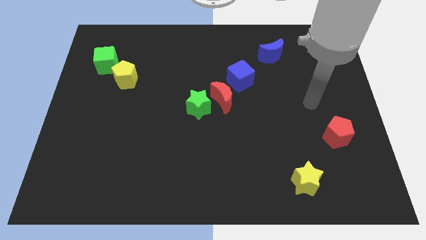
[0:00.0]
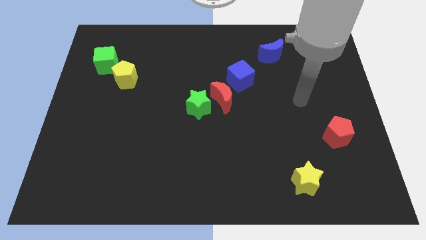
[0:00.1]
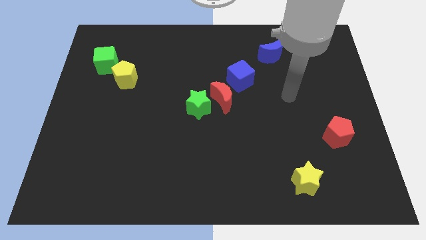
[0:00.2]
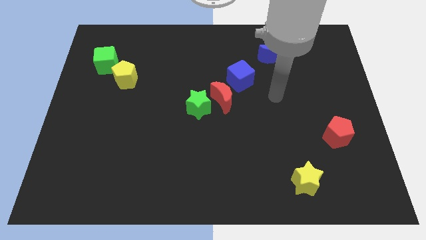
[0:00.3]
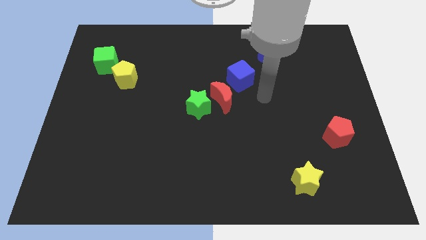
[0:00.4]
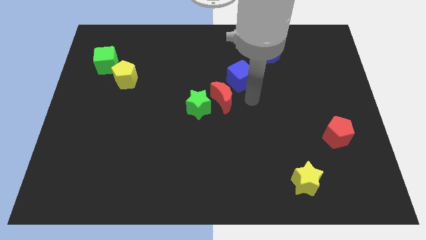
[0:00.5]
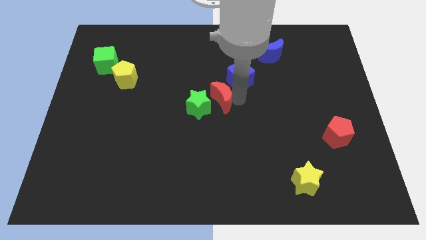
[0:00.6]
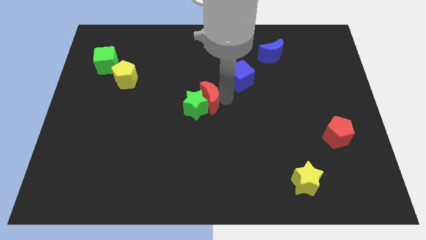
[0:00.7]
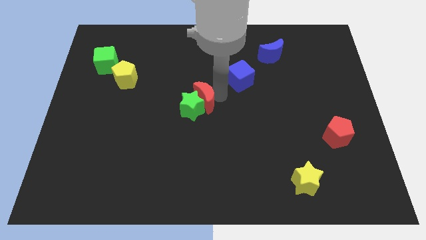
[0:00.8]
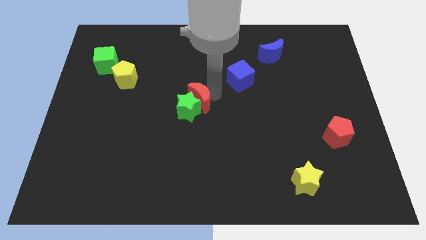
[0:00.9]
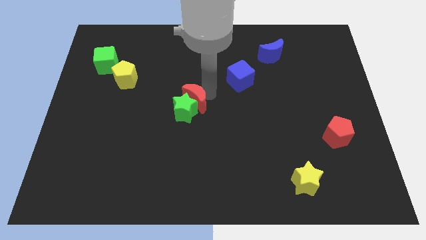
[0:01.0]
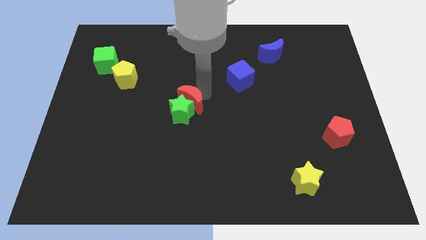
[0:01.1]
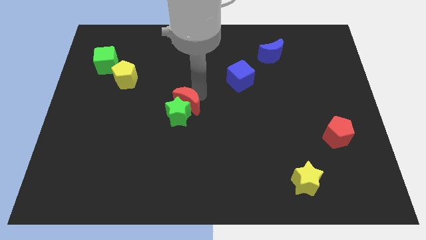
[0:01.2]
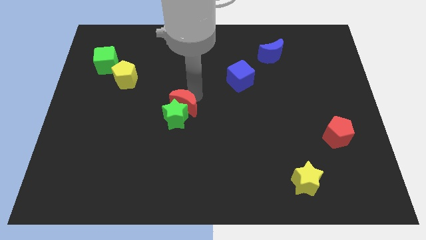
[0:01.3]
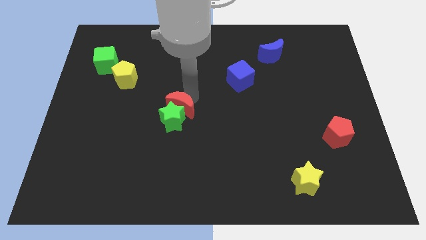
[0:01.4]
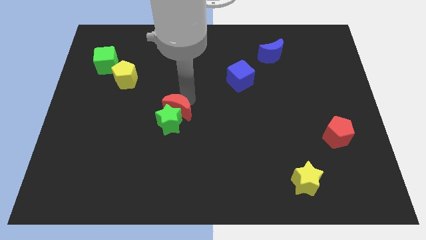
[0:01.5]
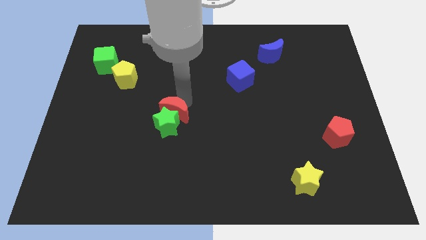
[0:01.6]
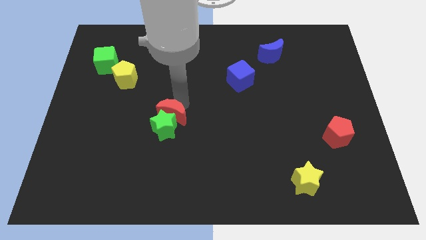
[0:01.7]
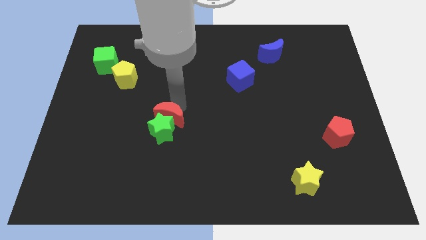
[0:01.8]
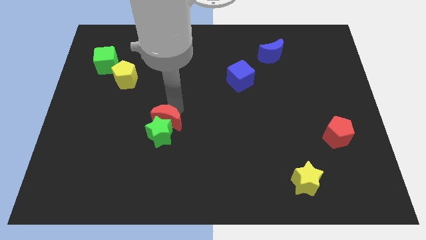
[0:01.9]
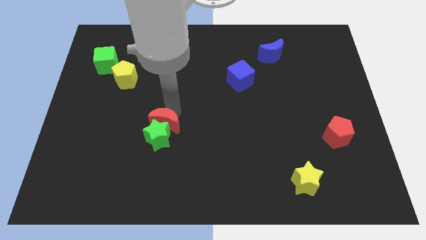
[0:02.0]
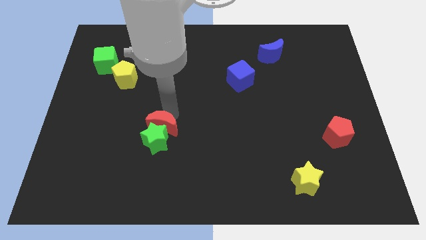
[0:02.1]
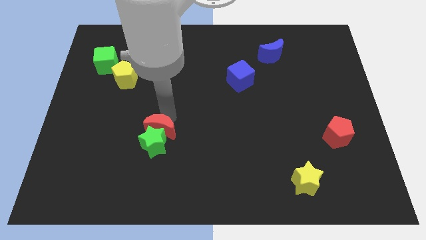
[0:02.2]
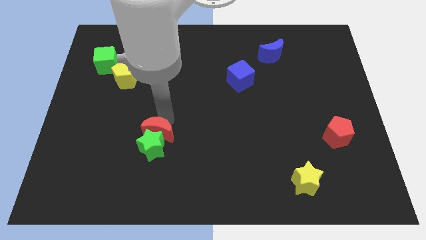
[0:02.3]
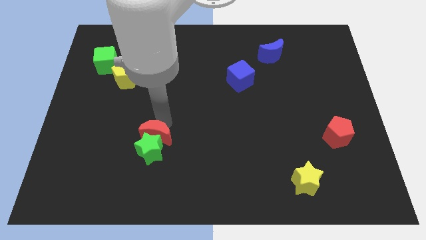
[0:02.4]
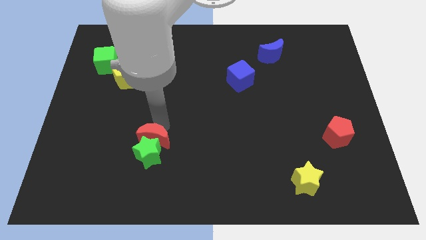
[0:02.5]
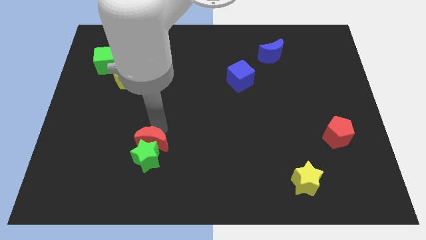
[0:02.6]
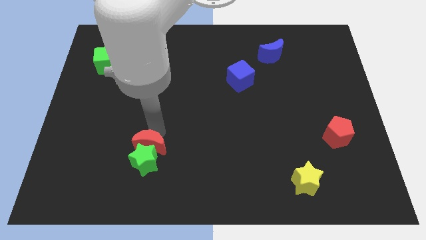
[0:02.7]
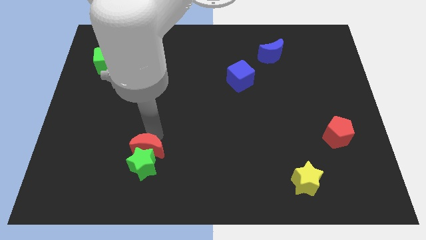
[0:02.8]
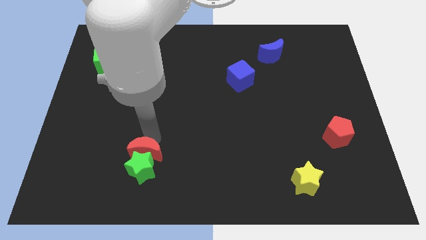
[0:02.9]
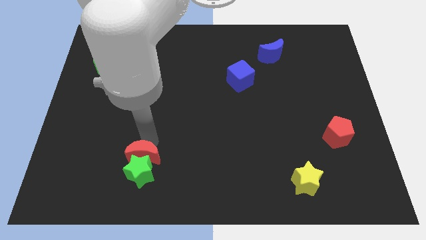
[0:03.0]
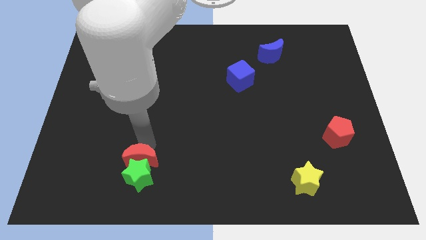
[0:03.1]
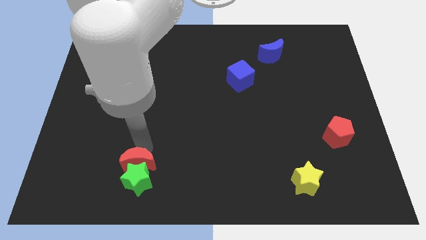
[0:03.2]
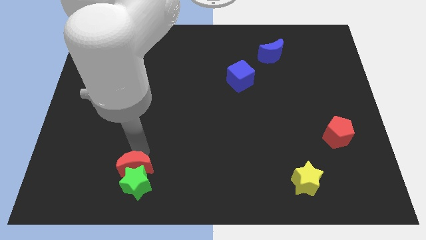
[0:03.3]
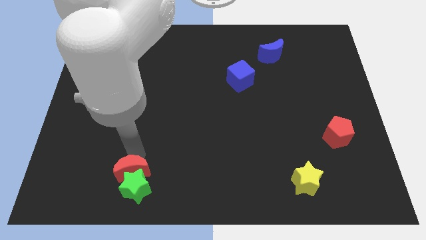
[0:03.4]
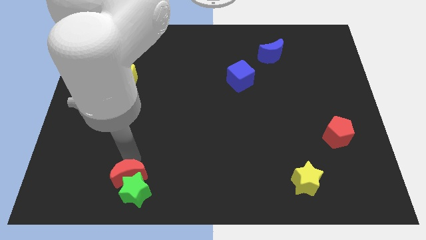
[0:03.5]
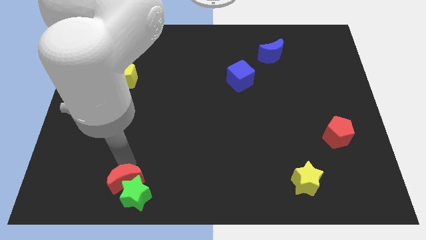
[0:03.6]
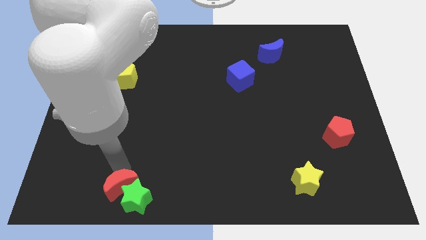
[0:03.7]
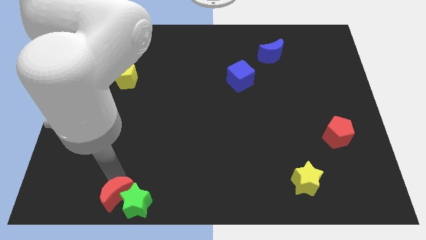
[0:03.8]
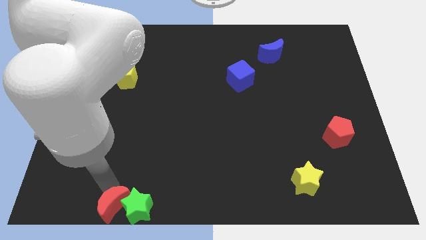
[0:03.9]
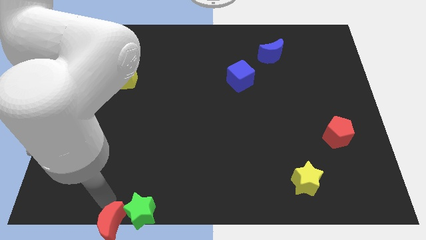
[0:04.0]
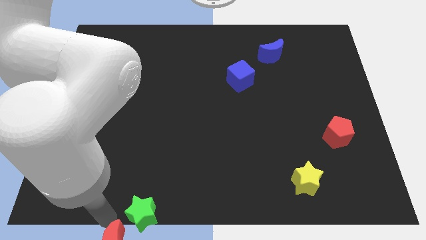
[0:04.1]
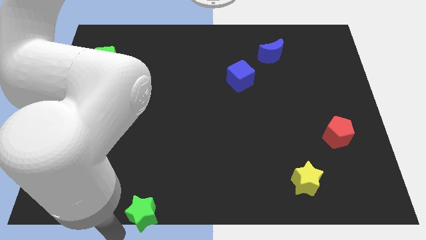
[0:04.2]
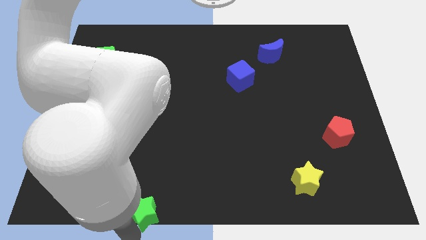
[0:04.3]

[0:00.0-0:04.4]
separate the green star from the red moon

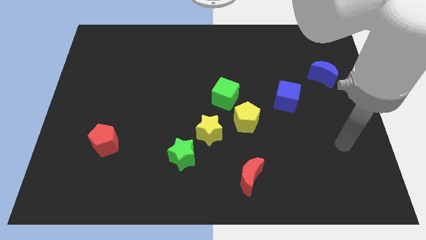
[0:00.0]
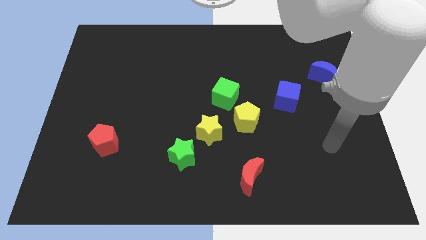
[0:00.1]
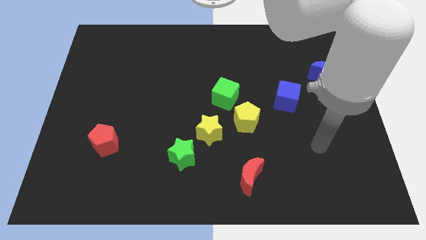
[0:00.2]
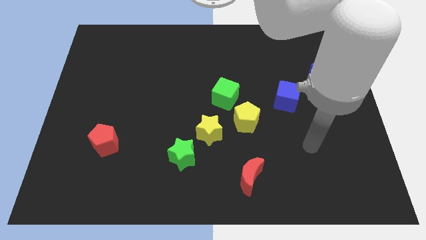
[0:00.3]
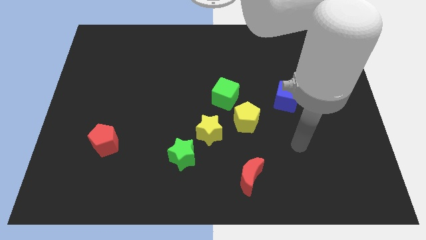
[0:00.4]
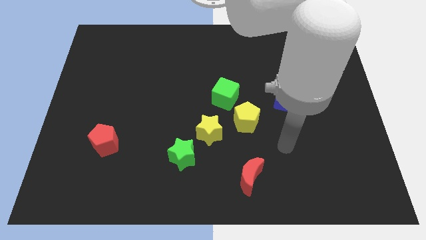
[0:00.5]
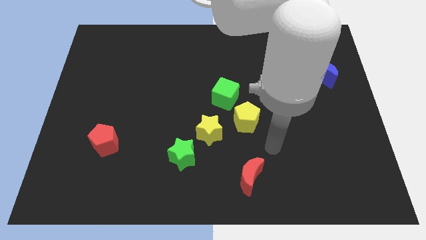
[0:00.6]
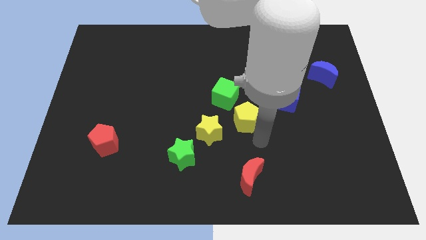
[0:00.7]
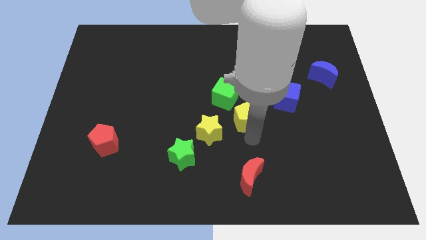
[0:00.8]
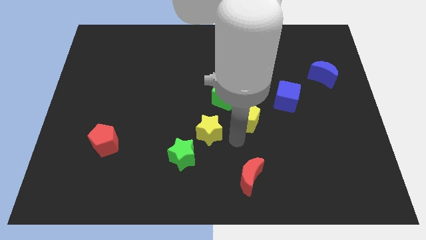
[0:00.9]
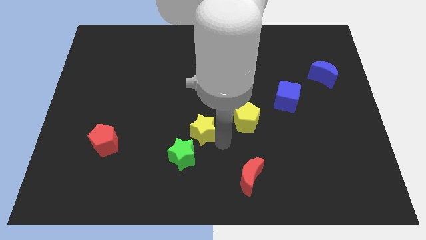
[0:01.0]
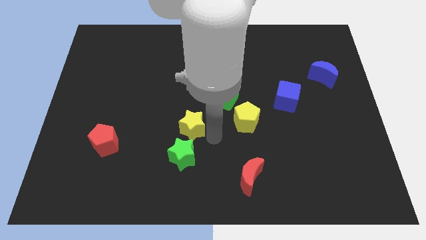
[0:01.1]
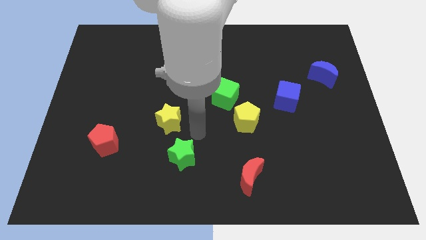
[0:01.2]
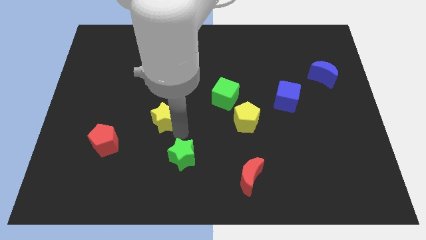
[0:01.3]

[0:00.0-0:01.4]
separate the green star from the yellow star

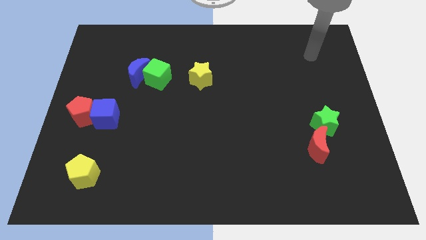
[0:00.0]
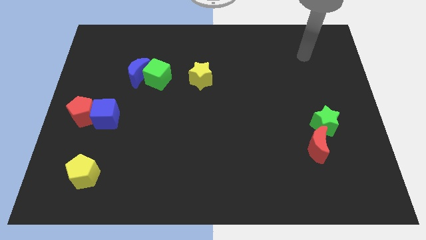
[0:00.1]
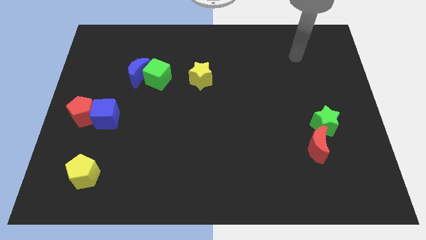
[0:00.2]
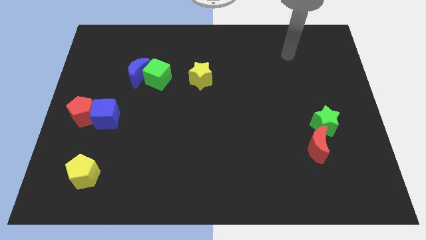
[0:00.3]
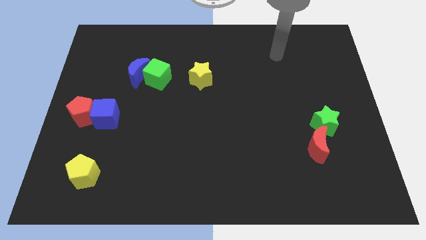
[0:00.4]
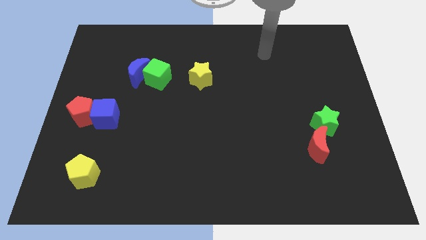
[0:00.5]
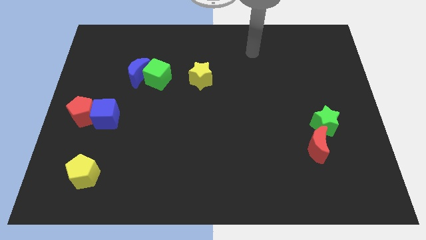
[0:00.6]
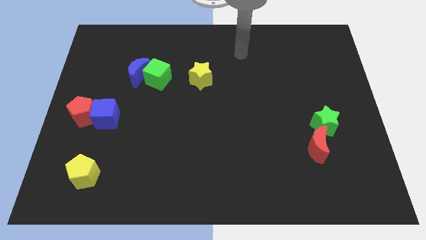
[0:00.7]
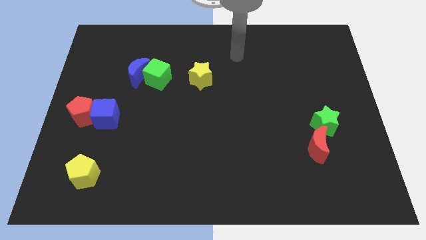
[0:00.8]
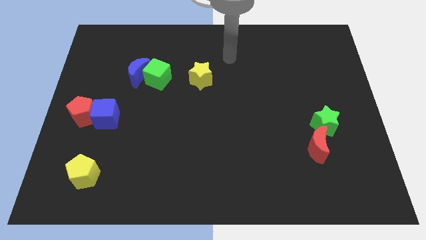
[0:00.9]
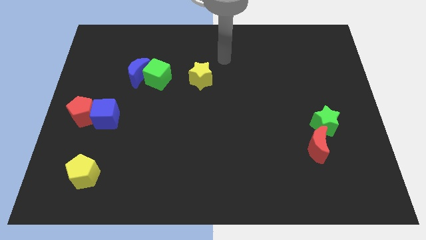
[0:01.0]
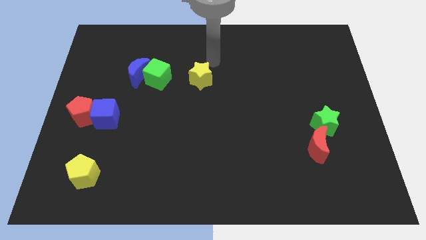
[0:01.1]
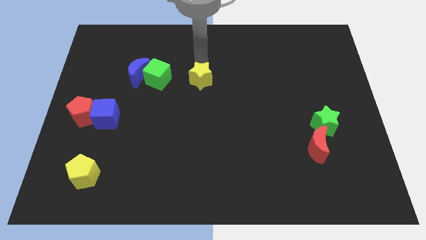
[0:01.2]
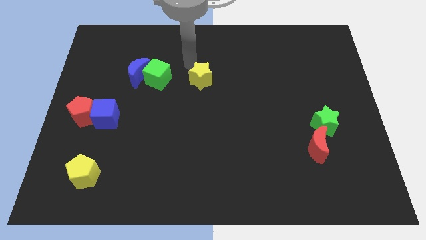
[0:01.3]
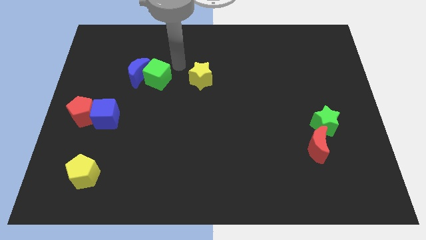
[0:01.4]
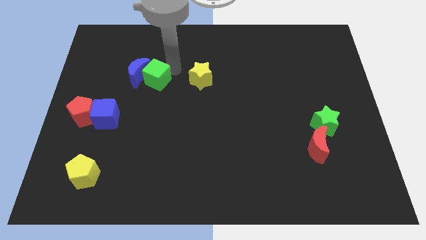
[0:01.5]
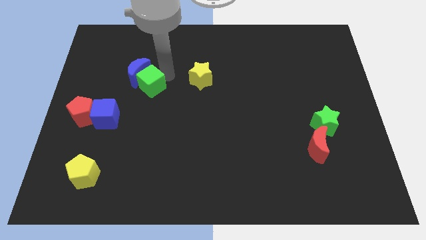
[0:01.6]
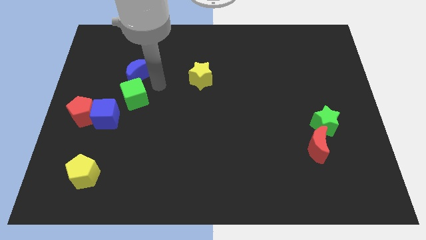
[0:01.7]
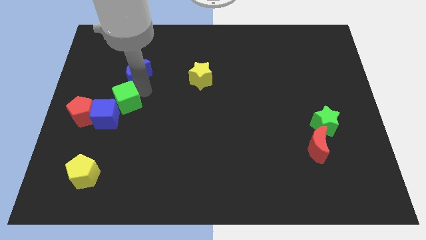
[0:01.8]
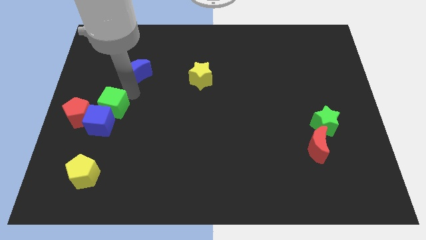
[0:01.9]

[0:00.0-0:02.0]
separate the blue moon from the green cube

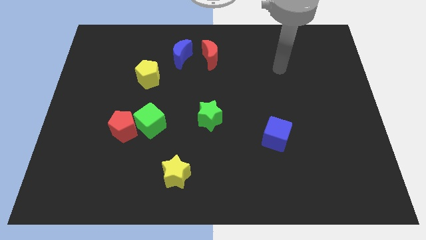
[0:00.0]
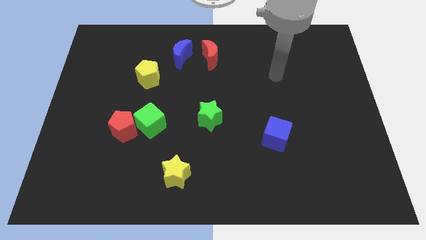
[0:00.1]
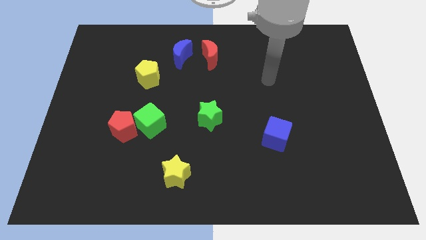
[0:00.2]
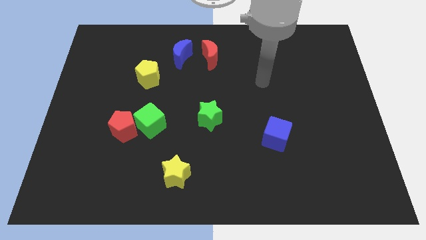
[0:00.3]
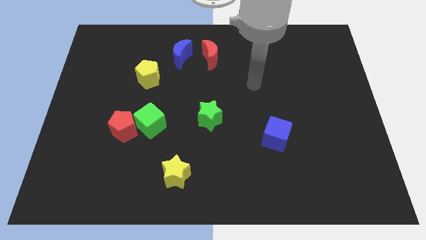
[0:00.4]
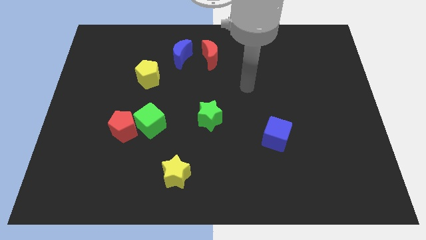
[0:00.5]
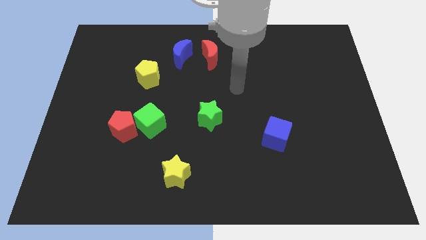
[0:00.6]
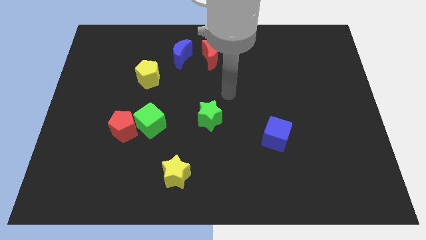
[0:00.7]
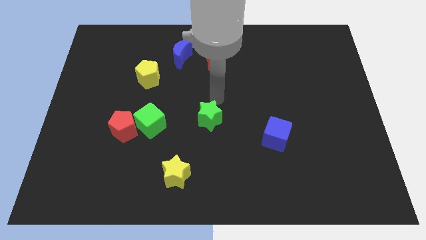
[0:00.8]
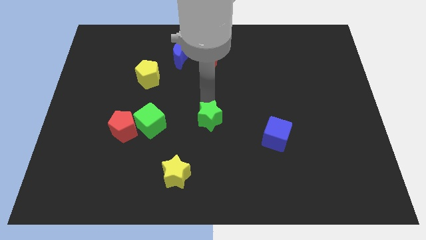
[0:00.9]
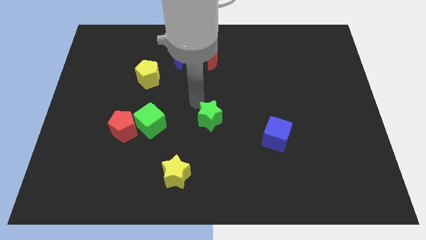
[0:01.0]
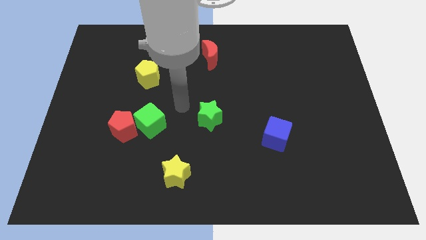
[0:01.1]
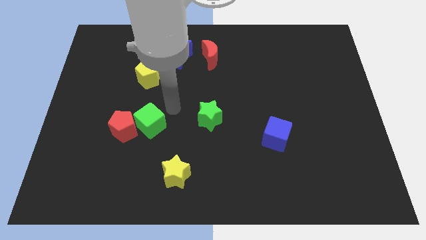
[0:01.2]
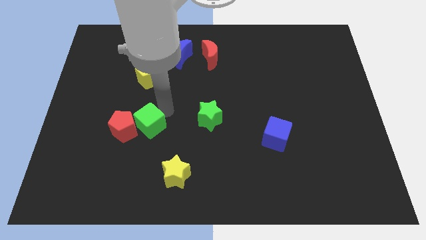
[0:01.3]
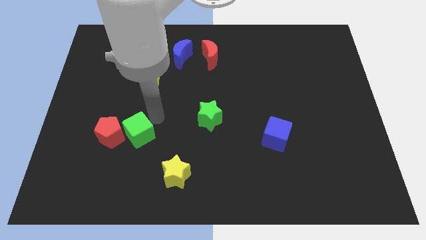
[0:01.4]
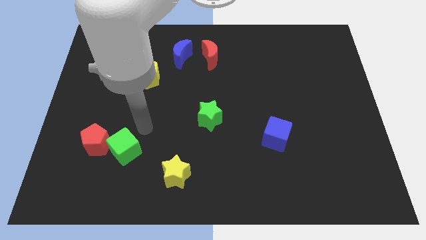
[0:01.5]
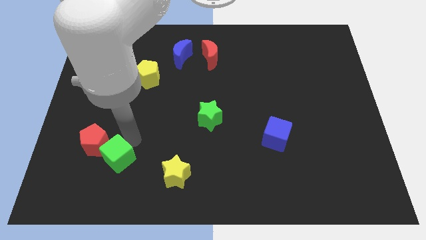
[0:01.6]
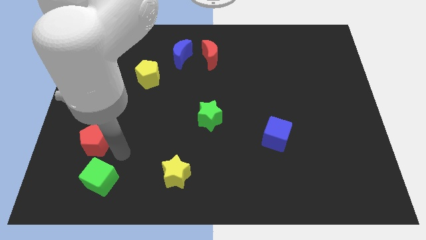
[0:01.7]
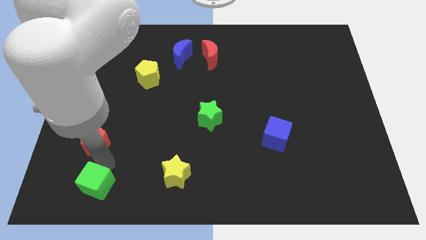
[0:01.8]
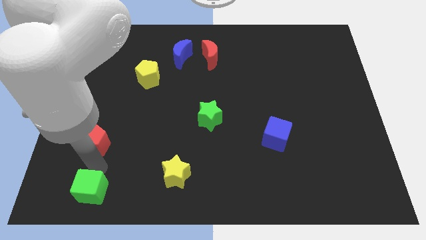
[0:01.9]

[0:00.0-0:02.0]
pull the red pentagon apart from the green cube
